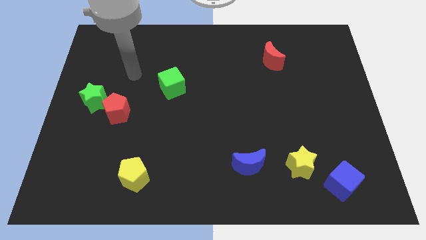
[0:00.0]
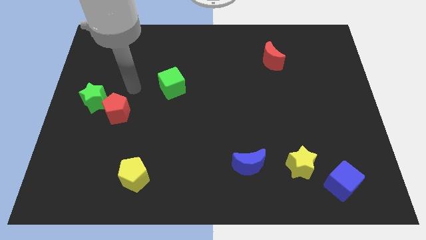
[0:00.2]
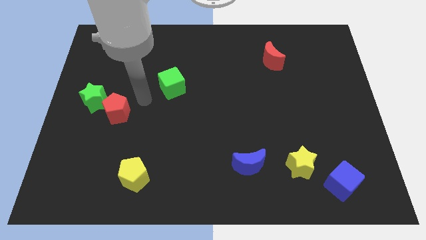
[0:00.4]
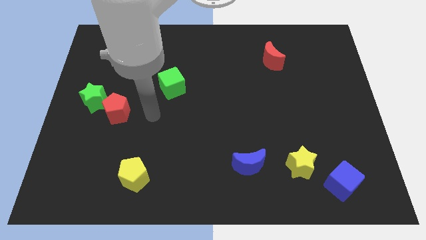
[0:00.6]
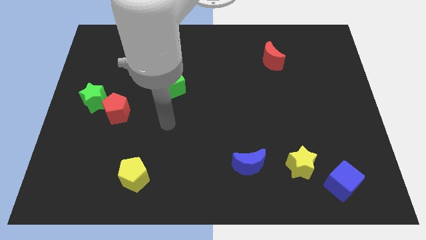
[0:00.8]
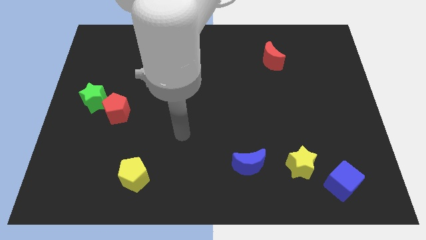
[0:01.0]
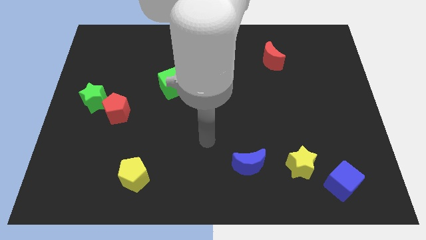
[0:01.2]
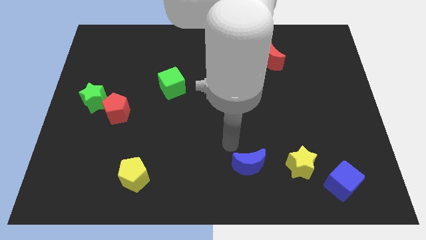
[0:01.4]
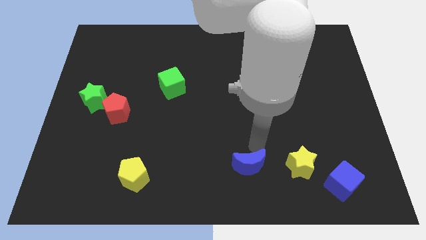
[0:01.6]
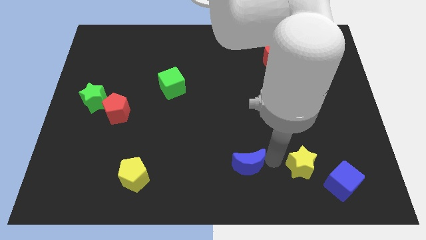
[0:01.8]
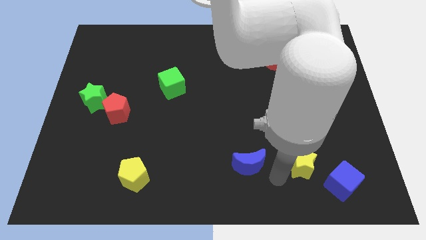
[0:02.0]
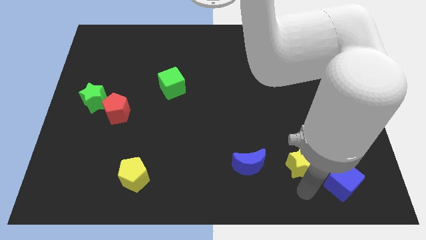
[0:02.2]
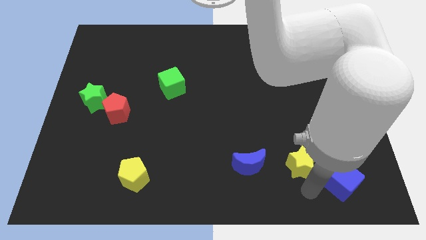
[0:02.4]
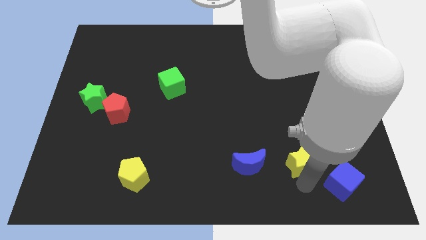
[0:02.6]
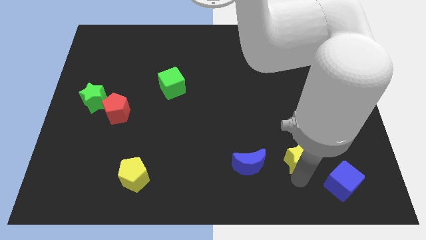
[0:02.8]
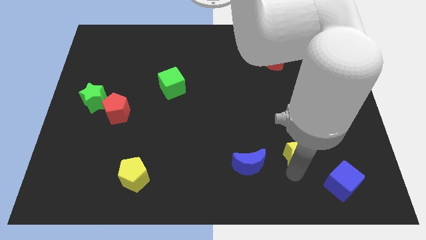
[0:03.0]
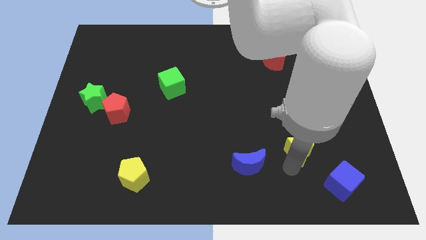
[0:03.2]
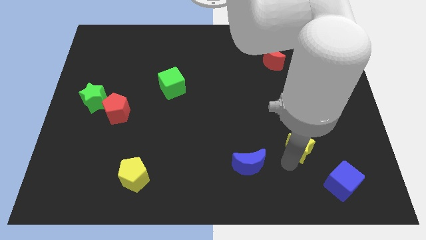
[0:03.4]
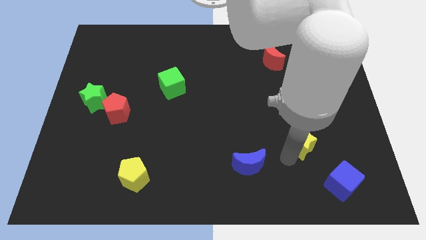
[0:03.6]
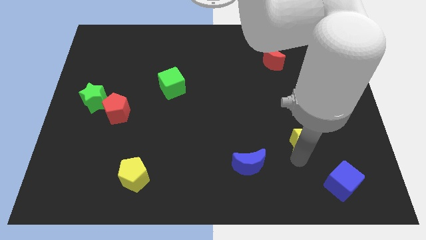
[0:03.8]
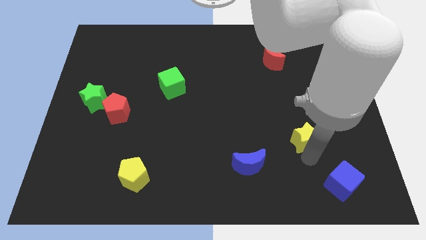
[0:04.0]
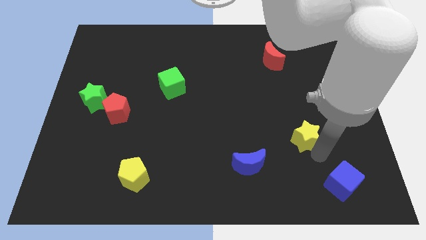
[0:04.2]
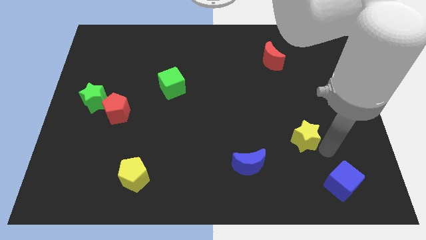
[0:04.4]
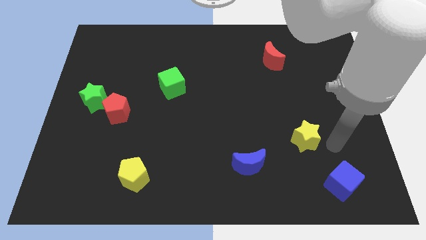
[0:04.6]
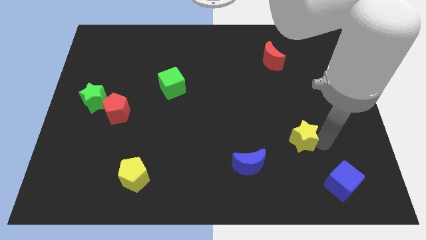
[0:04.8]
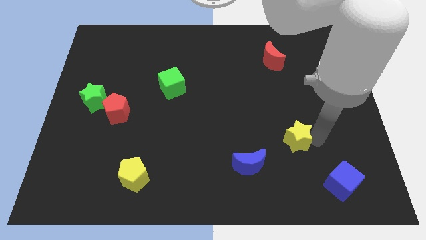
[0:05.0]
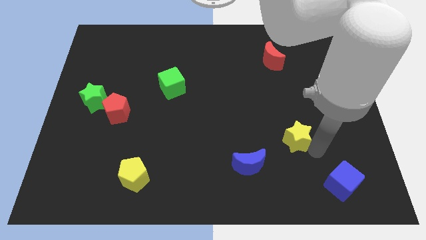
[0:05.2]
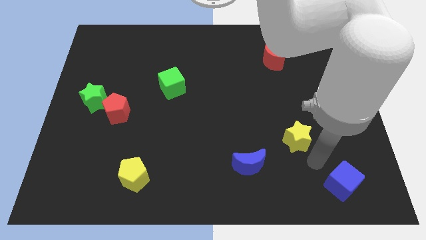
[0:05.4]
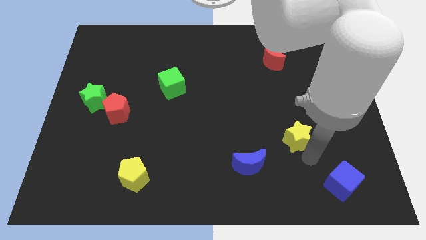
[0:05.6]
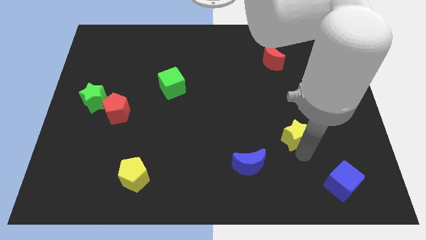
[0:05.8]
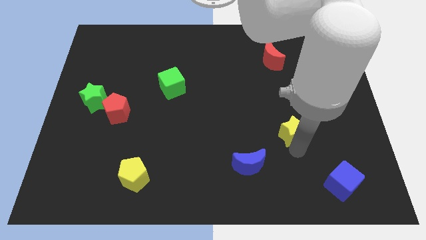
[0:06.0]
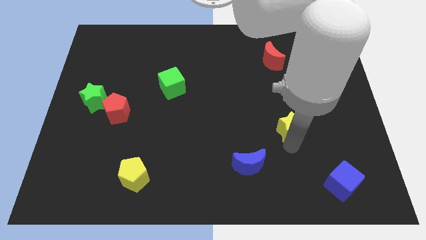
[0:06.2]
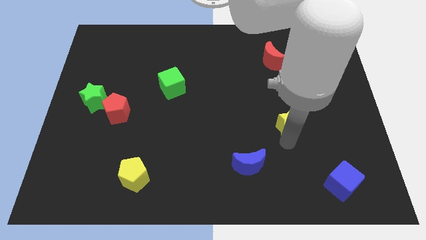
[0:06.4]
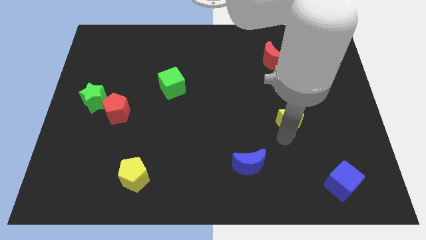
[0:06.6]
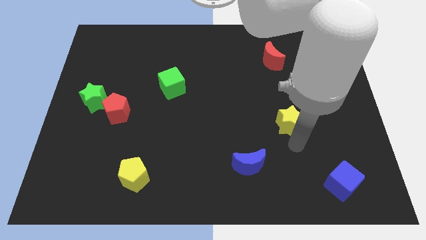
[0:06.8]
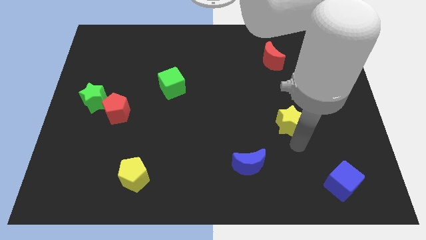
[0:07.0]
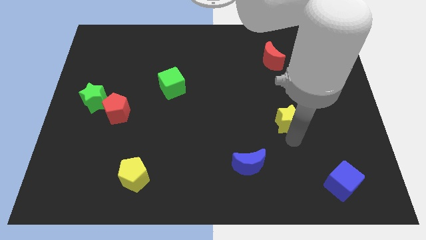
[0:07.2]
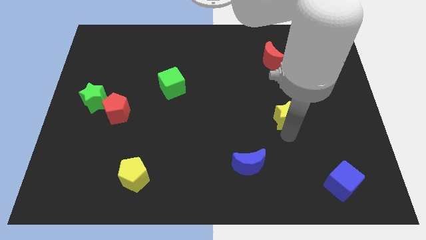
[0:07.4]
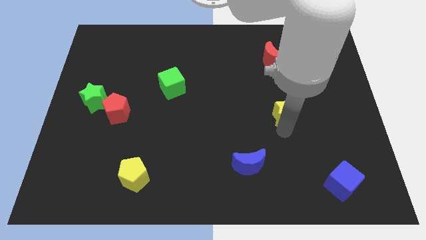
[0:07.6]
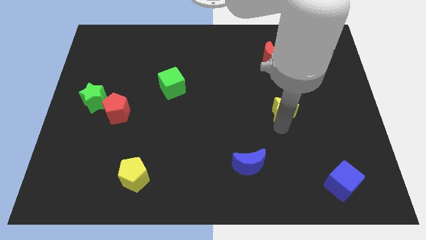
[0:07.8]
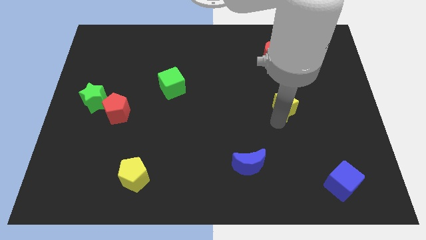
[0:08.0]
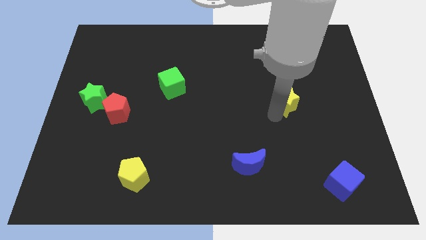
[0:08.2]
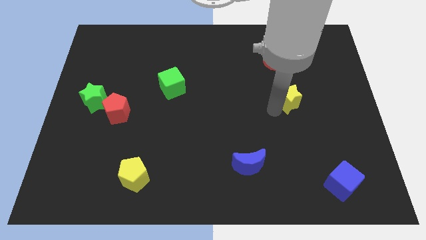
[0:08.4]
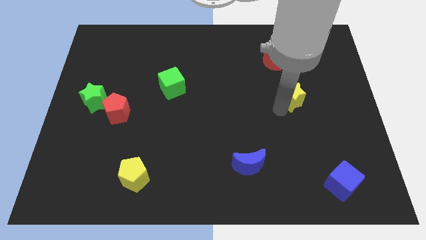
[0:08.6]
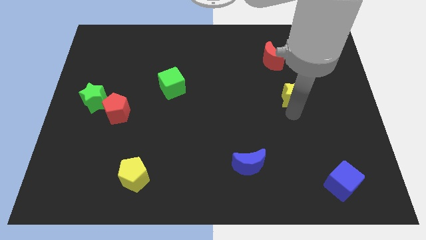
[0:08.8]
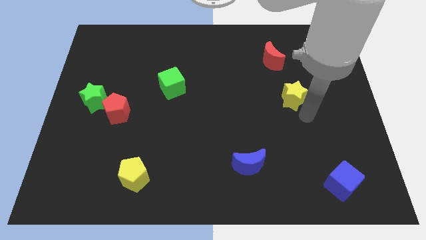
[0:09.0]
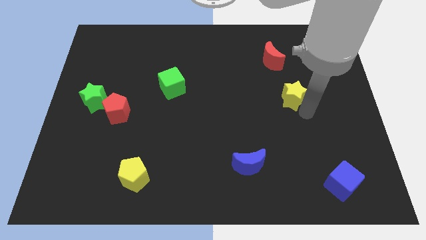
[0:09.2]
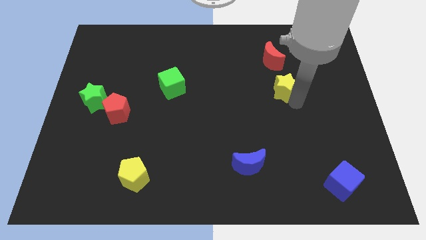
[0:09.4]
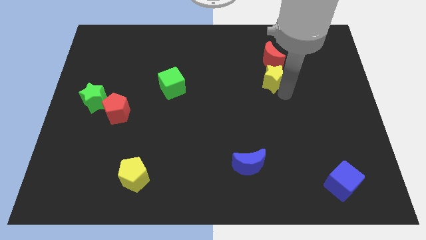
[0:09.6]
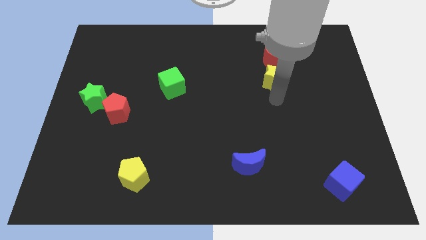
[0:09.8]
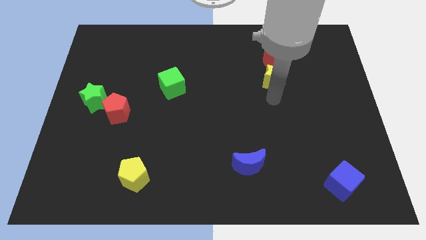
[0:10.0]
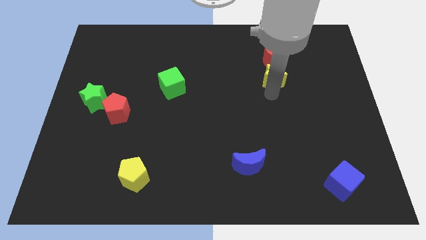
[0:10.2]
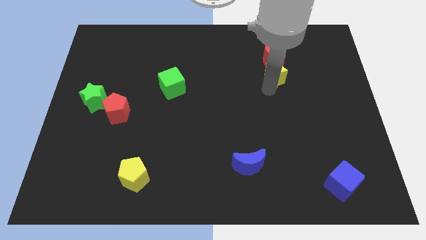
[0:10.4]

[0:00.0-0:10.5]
move the yellow star close to the red moon

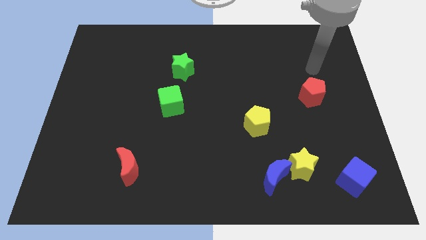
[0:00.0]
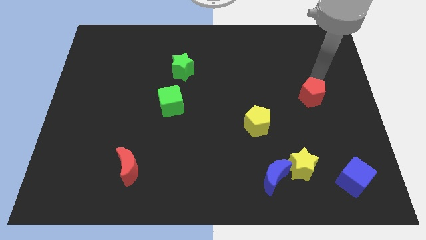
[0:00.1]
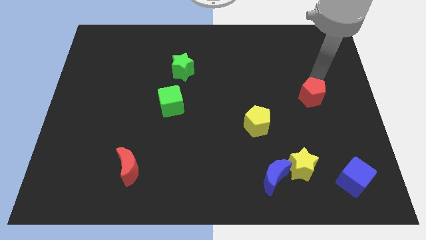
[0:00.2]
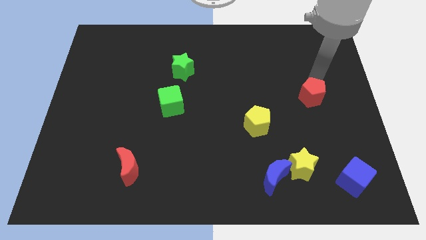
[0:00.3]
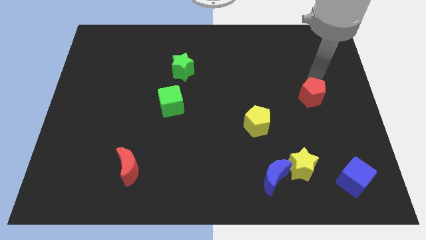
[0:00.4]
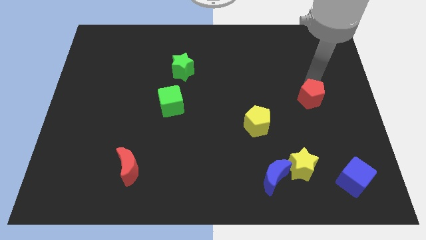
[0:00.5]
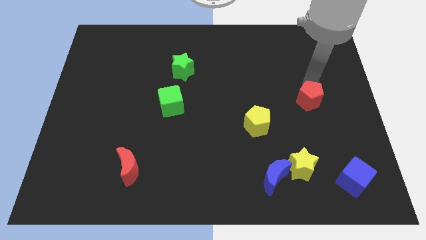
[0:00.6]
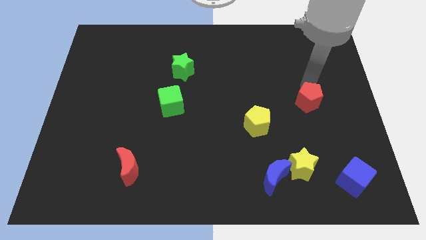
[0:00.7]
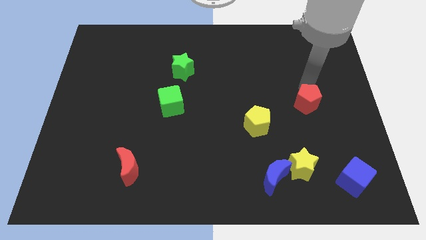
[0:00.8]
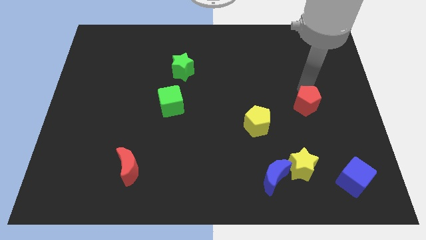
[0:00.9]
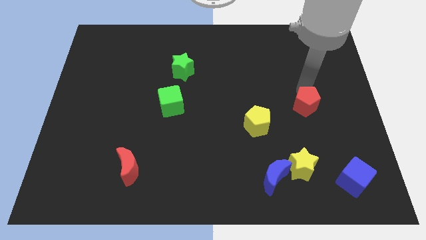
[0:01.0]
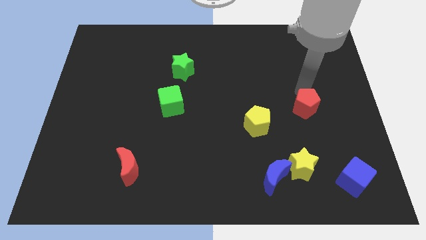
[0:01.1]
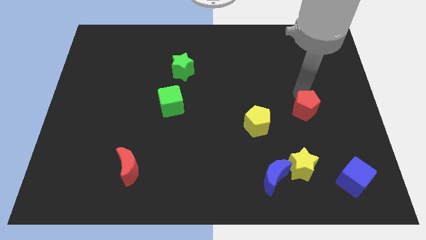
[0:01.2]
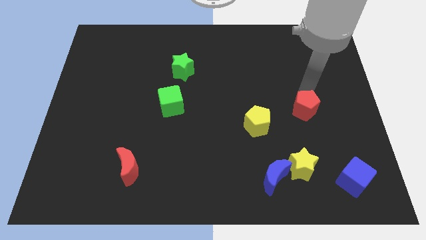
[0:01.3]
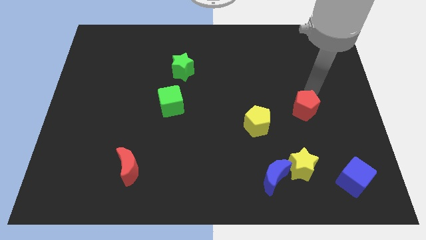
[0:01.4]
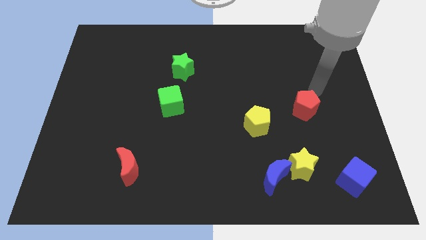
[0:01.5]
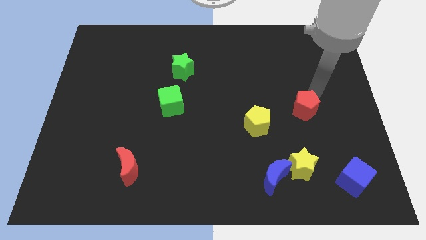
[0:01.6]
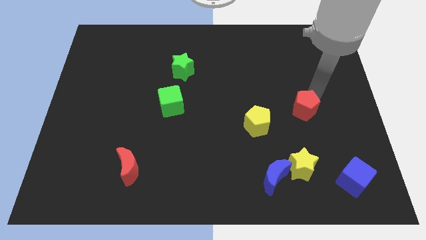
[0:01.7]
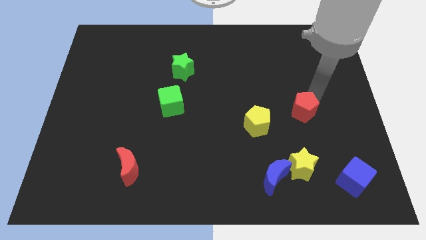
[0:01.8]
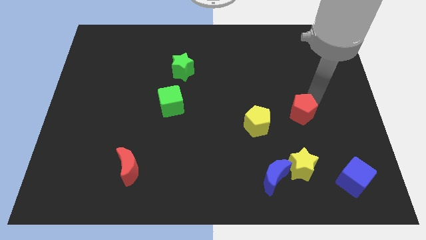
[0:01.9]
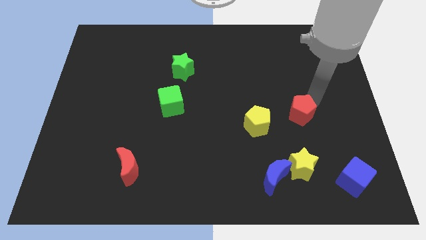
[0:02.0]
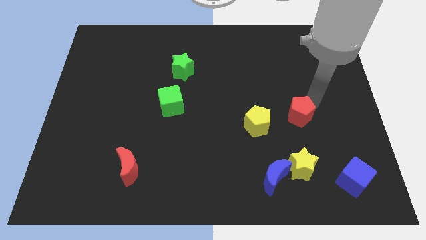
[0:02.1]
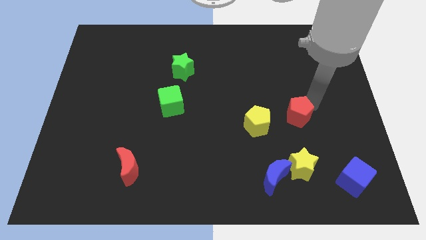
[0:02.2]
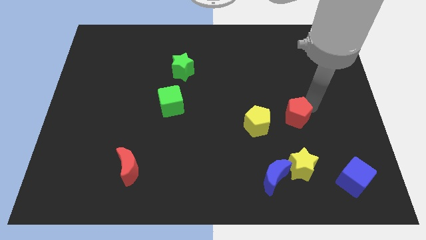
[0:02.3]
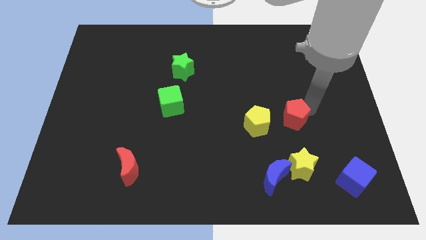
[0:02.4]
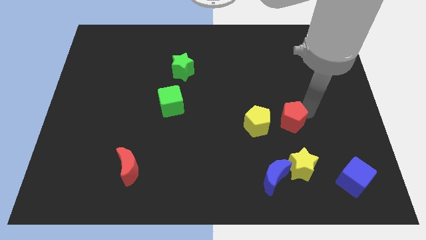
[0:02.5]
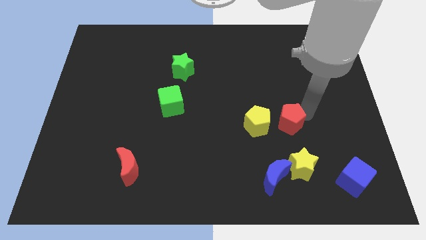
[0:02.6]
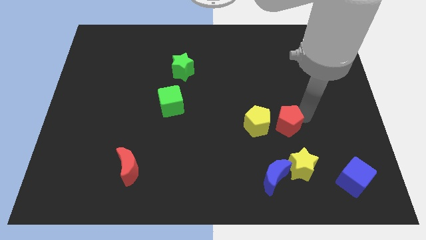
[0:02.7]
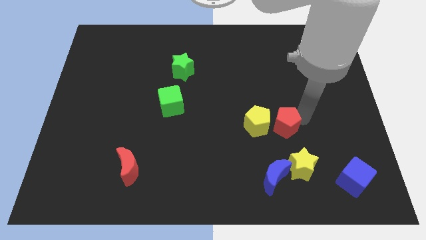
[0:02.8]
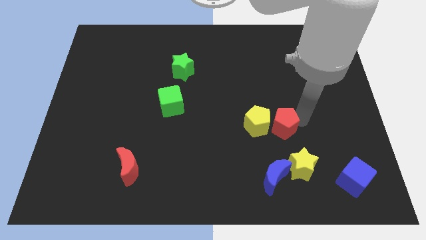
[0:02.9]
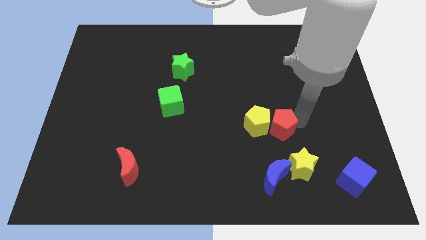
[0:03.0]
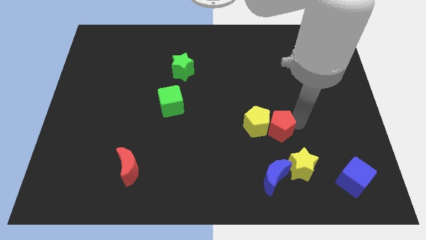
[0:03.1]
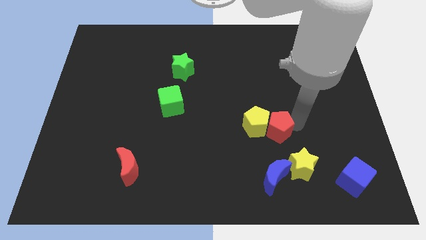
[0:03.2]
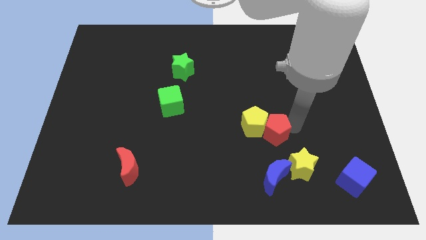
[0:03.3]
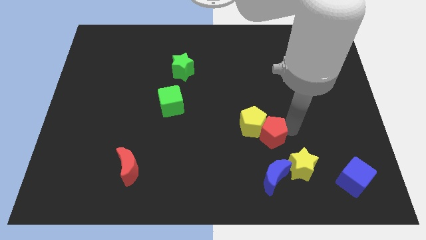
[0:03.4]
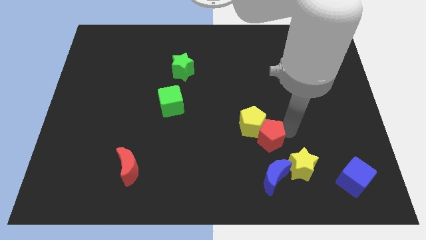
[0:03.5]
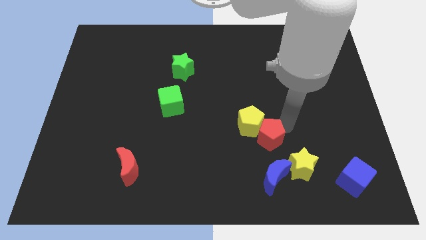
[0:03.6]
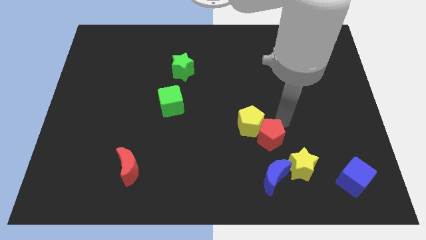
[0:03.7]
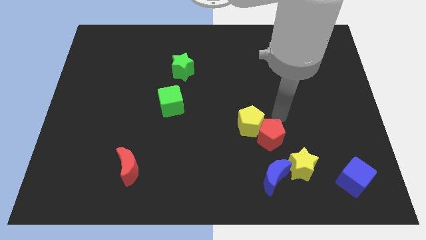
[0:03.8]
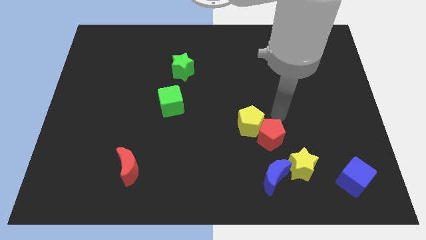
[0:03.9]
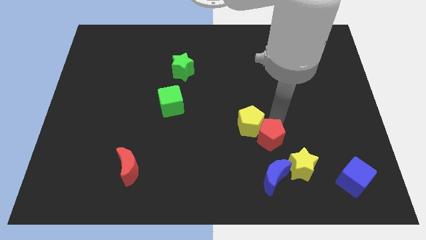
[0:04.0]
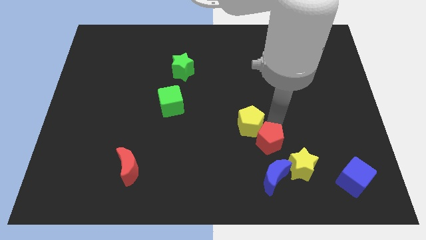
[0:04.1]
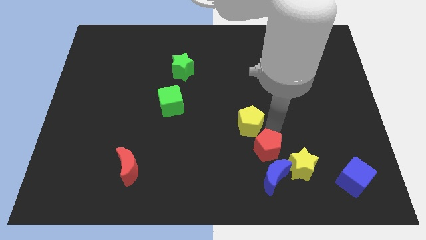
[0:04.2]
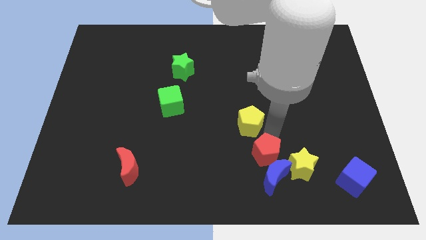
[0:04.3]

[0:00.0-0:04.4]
put the red pentagon towards the blue moon
